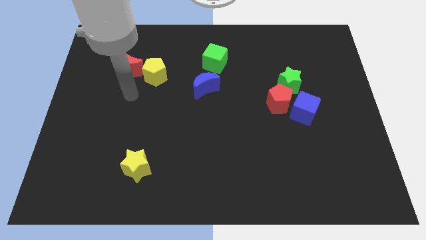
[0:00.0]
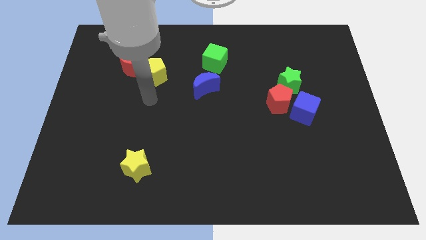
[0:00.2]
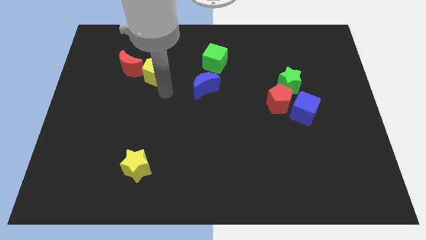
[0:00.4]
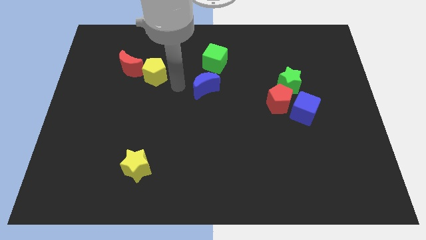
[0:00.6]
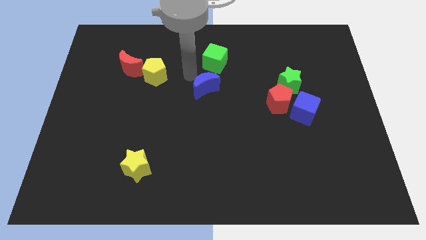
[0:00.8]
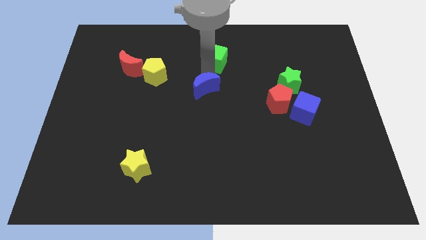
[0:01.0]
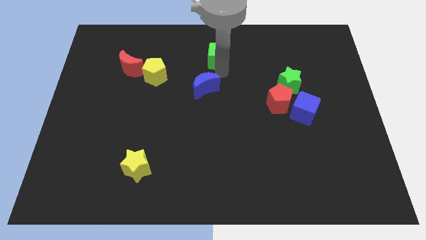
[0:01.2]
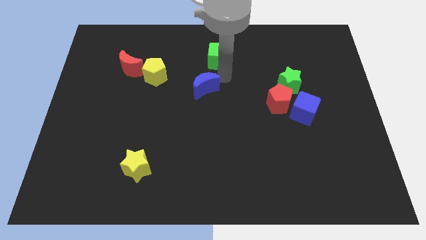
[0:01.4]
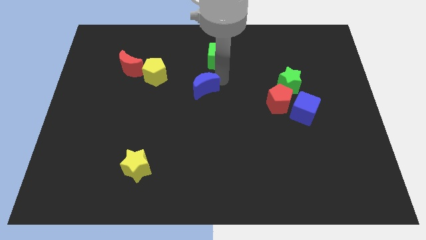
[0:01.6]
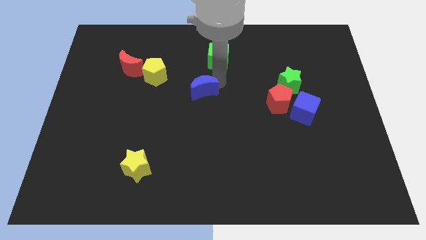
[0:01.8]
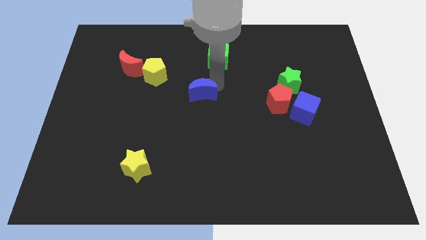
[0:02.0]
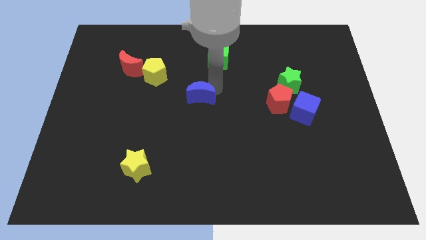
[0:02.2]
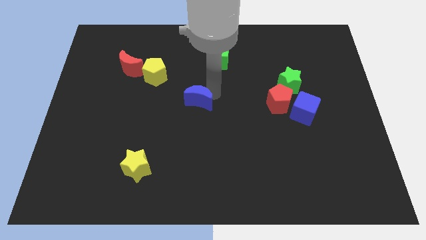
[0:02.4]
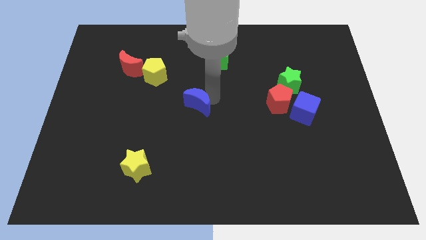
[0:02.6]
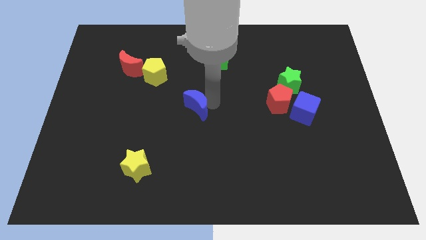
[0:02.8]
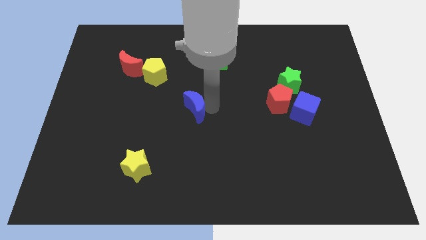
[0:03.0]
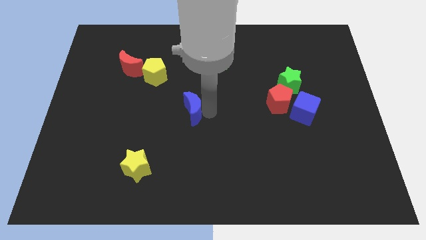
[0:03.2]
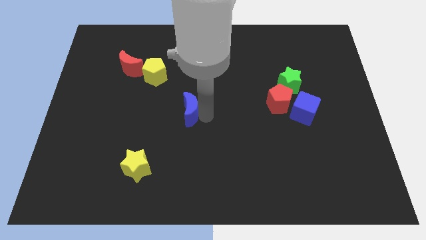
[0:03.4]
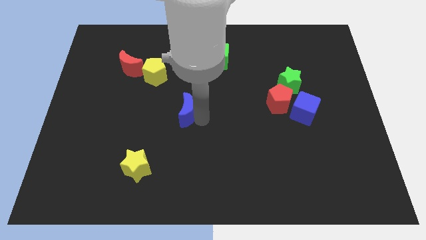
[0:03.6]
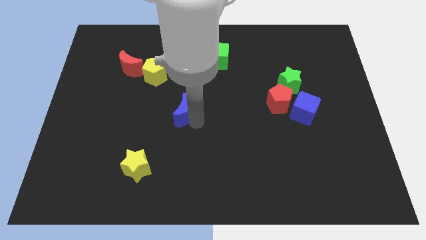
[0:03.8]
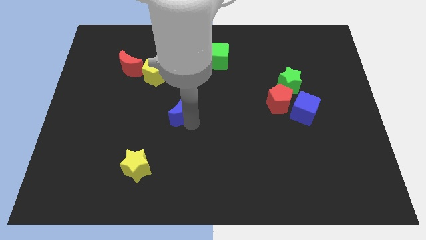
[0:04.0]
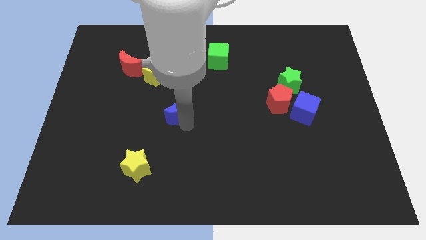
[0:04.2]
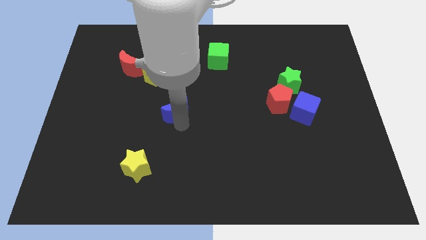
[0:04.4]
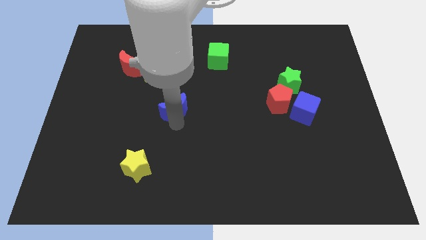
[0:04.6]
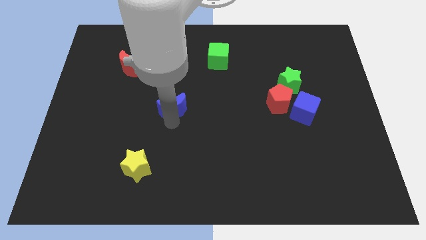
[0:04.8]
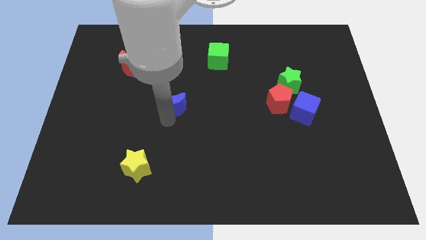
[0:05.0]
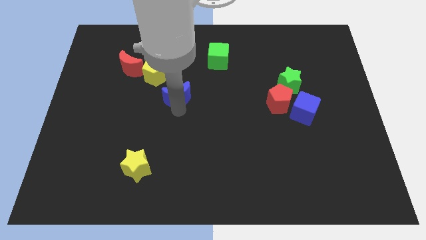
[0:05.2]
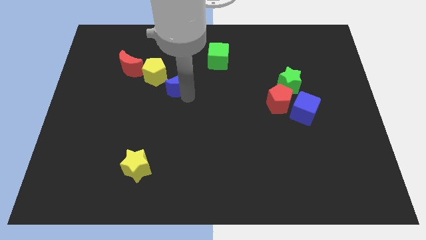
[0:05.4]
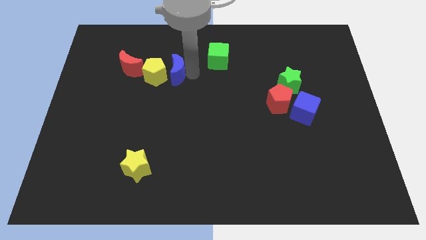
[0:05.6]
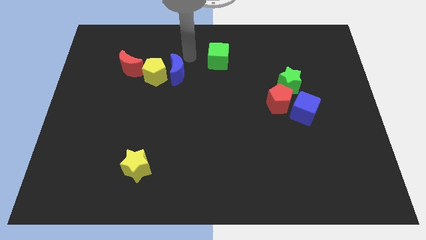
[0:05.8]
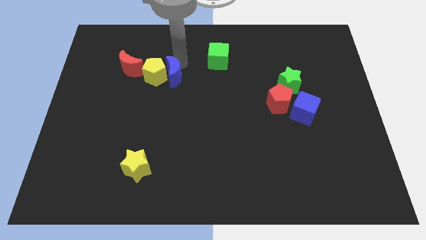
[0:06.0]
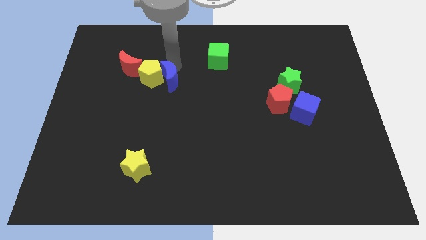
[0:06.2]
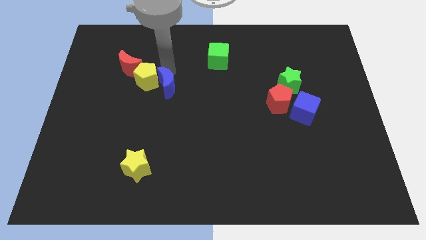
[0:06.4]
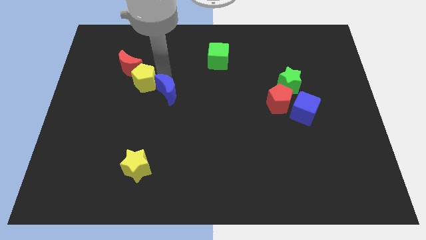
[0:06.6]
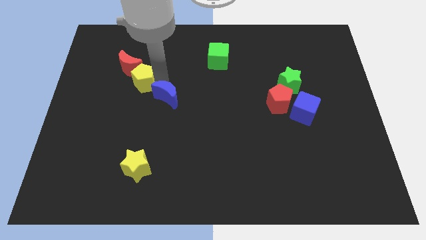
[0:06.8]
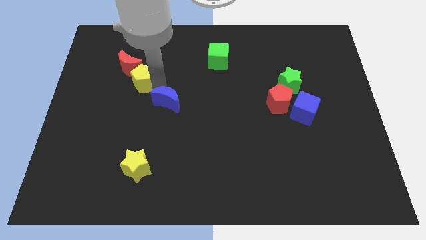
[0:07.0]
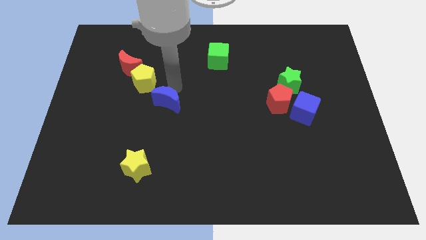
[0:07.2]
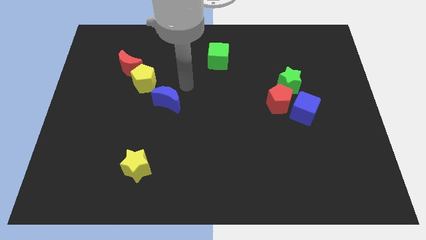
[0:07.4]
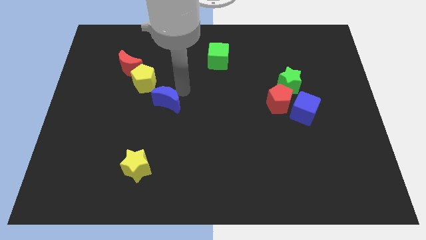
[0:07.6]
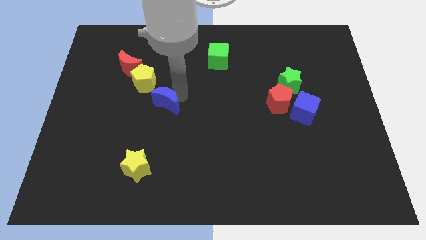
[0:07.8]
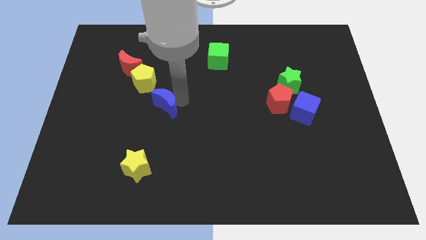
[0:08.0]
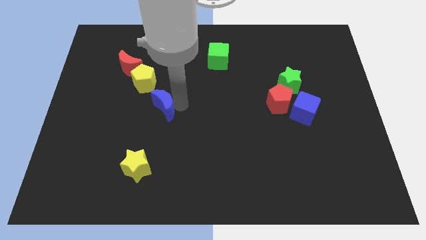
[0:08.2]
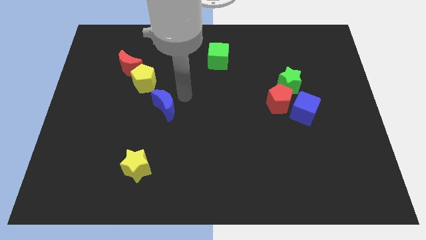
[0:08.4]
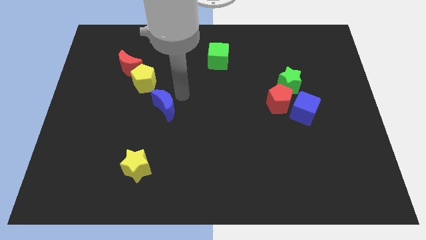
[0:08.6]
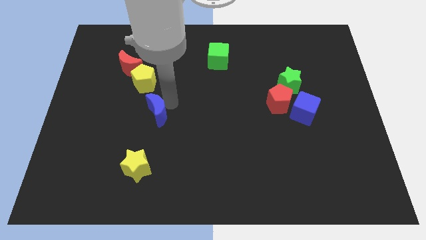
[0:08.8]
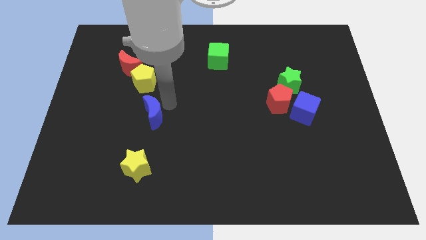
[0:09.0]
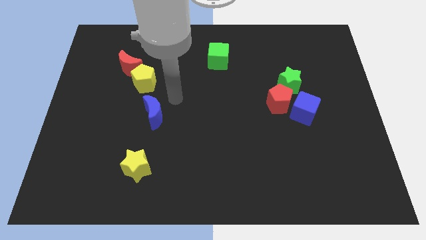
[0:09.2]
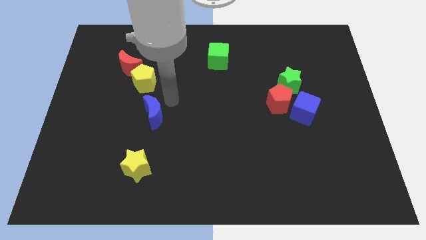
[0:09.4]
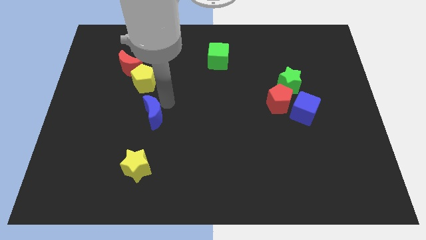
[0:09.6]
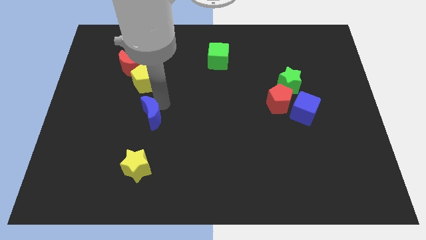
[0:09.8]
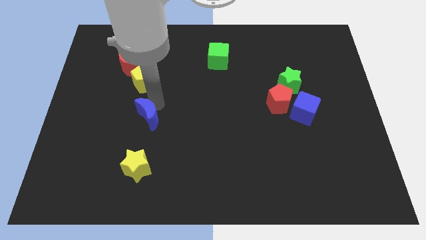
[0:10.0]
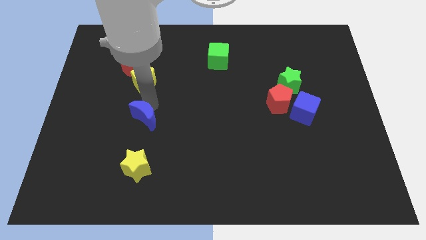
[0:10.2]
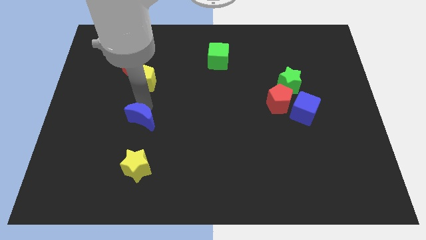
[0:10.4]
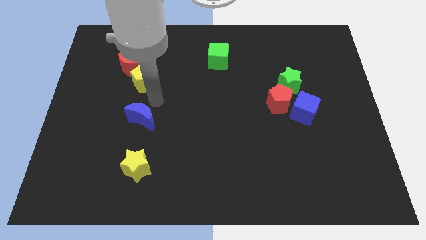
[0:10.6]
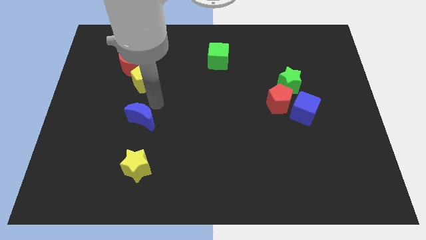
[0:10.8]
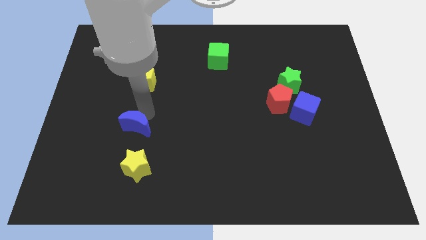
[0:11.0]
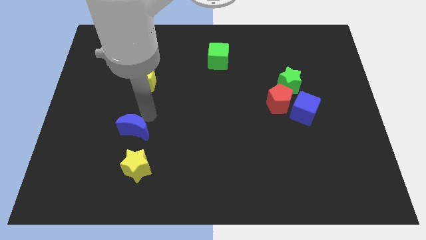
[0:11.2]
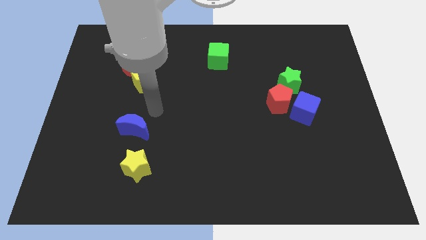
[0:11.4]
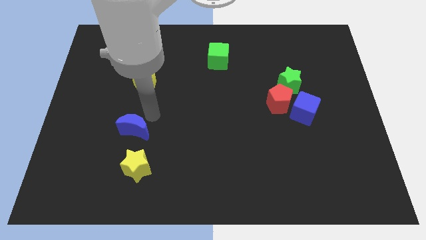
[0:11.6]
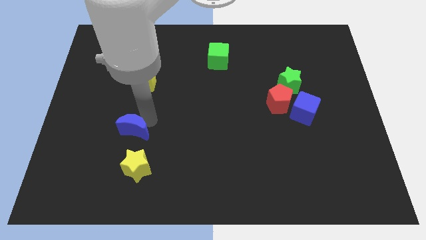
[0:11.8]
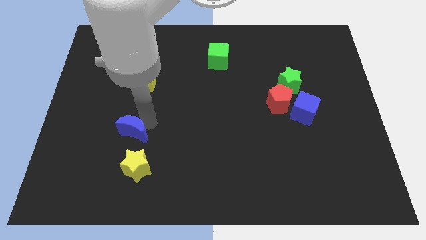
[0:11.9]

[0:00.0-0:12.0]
slide the blue moon to the top left side of the yellow star
